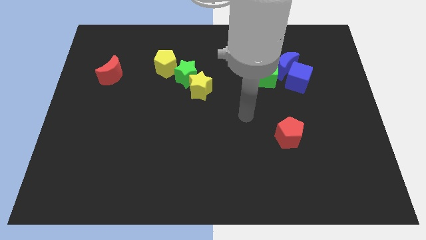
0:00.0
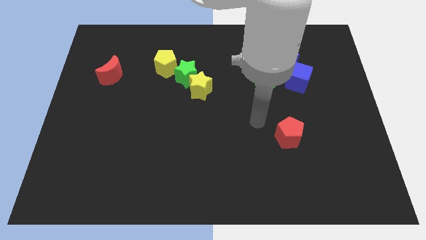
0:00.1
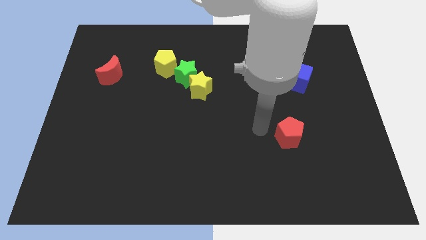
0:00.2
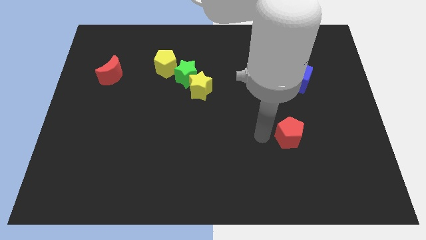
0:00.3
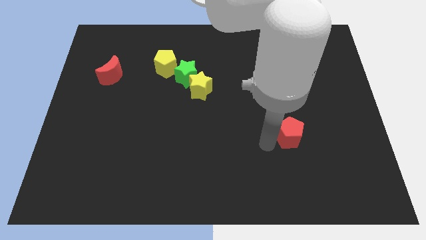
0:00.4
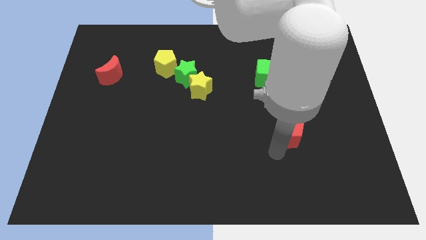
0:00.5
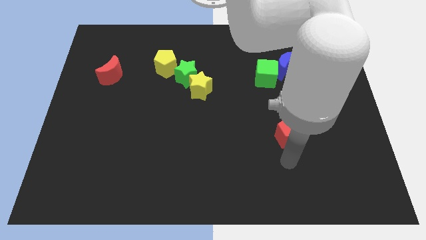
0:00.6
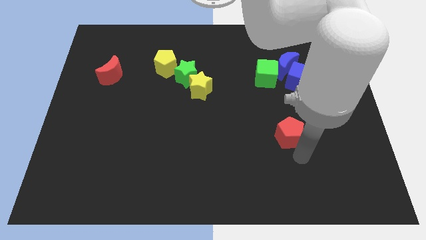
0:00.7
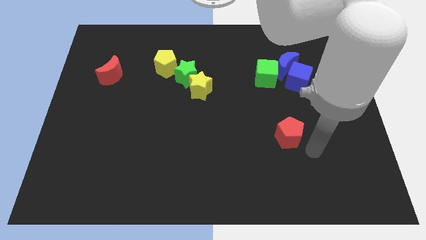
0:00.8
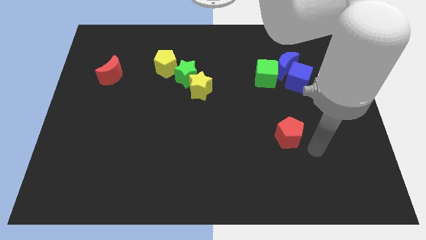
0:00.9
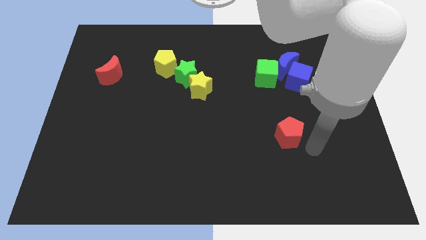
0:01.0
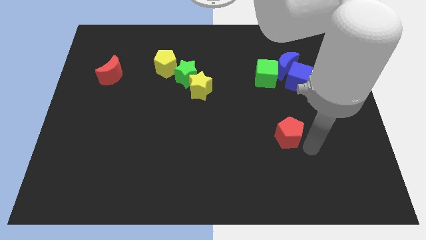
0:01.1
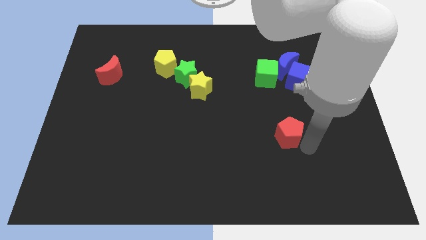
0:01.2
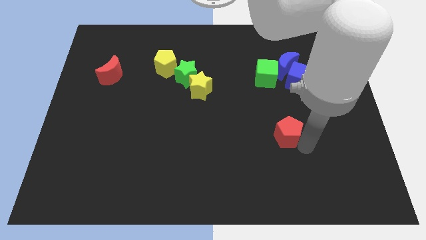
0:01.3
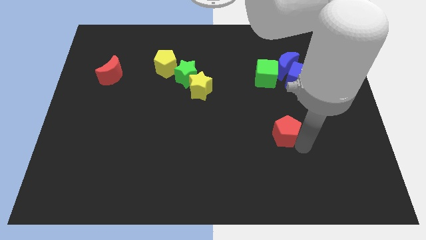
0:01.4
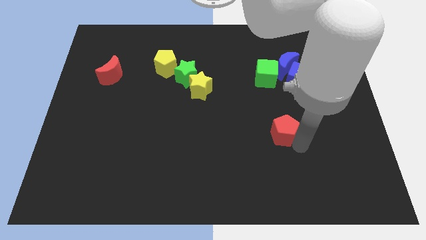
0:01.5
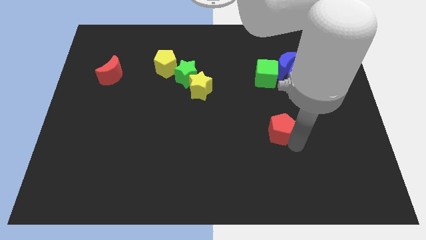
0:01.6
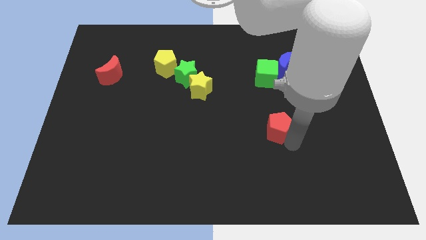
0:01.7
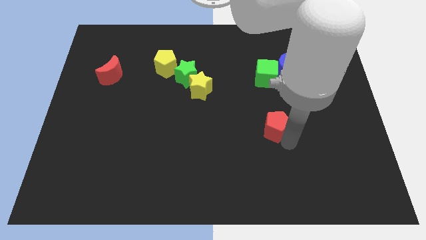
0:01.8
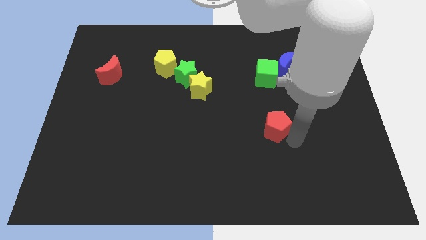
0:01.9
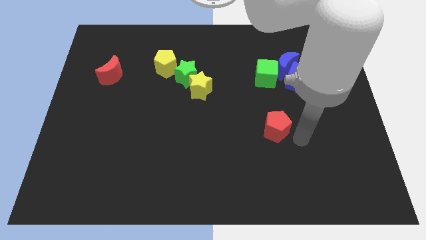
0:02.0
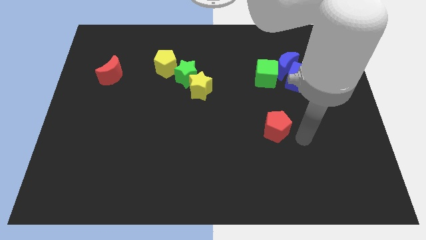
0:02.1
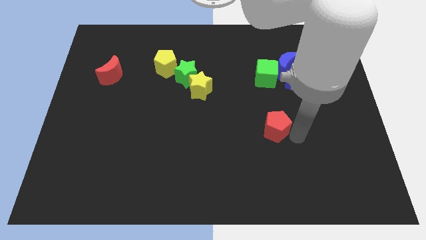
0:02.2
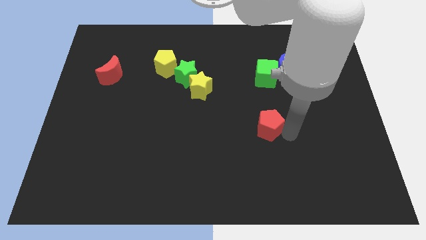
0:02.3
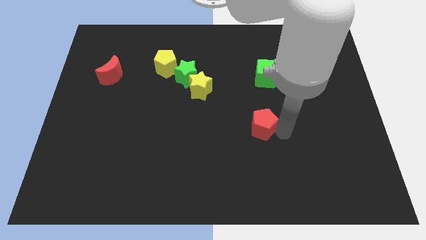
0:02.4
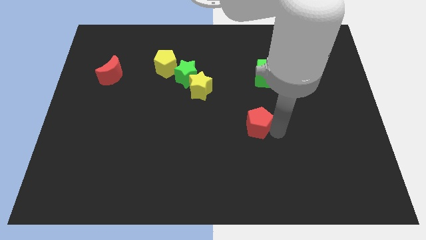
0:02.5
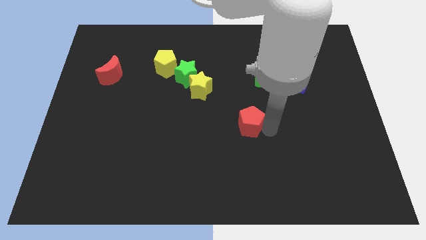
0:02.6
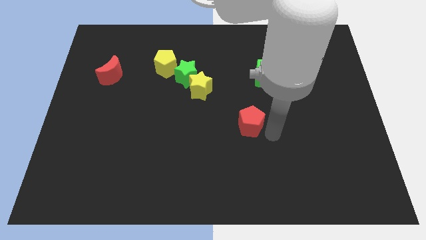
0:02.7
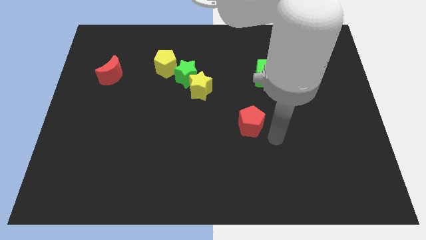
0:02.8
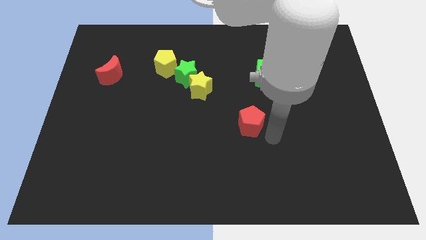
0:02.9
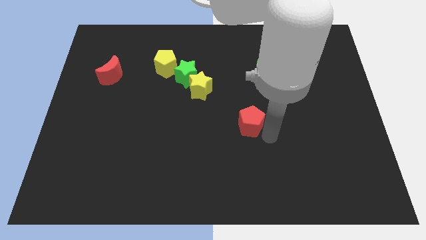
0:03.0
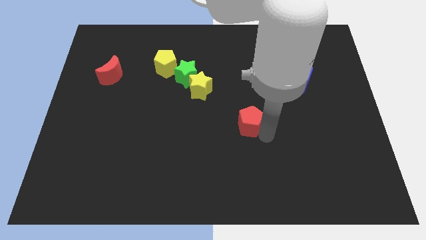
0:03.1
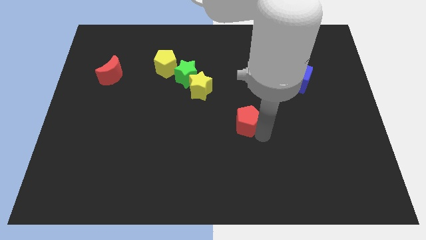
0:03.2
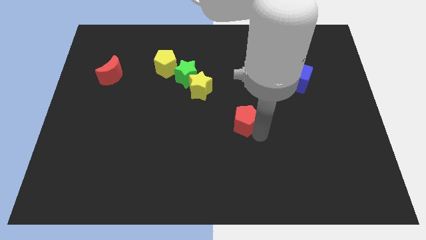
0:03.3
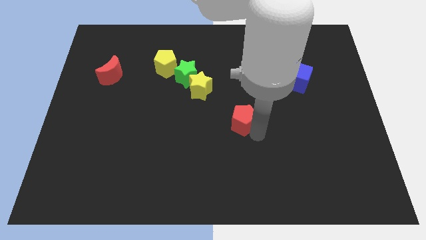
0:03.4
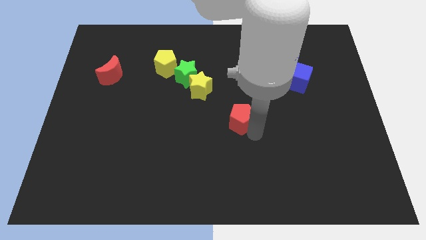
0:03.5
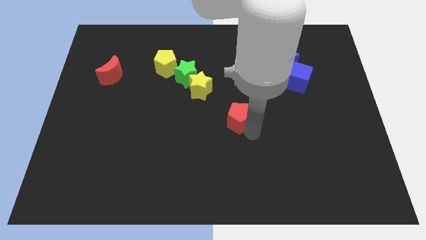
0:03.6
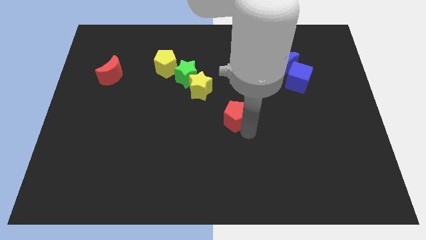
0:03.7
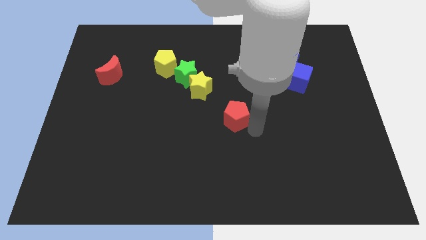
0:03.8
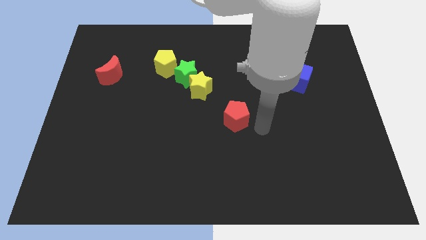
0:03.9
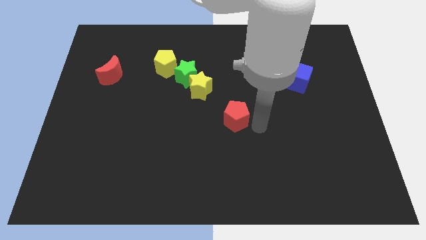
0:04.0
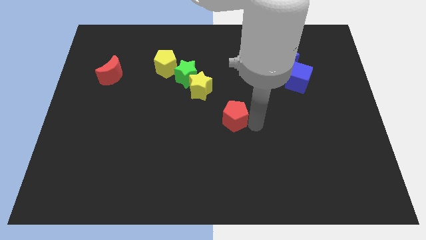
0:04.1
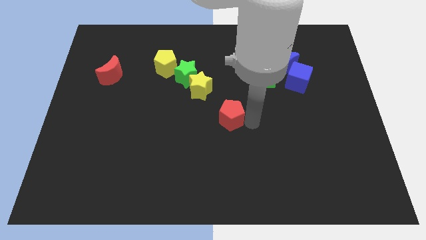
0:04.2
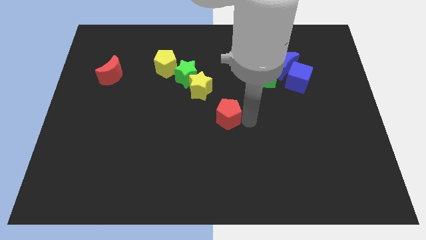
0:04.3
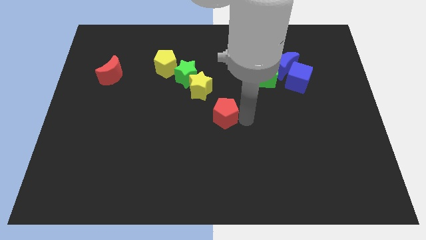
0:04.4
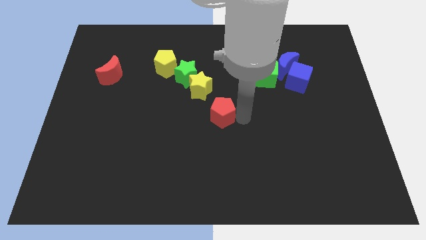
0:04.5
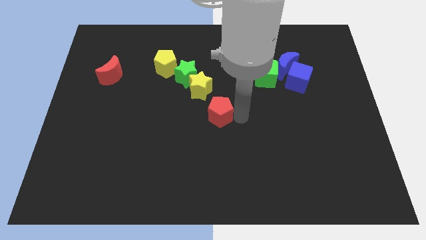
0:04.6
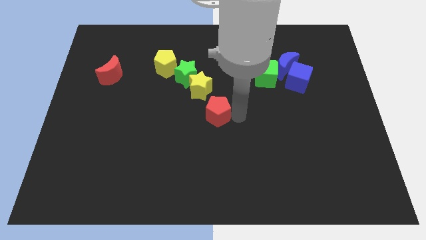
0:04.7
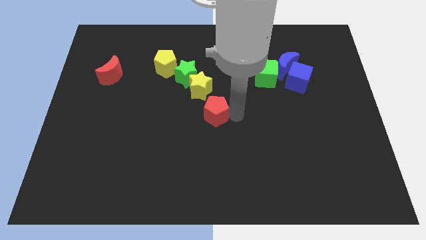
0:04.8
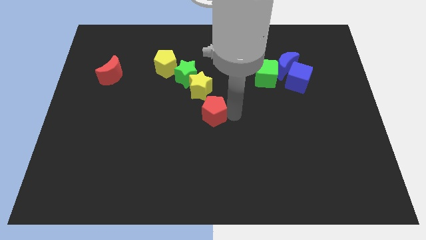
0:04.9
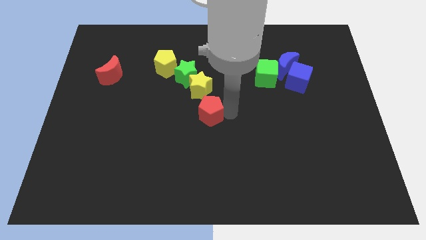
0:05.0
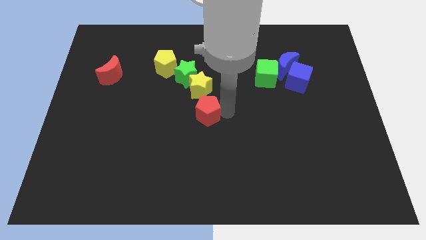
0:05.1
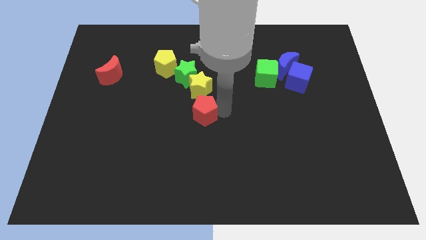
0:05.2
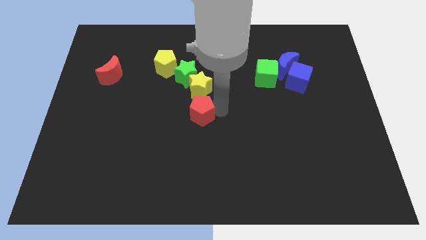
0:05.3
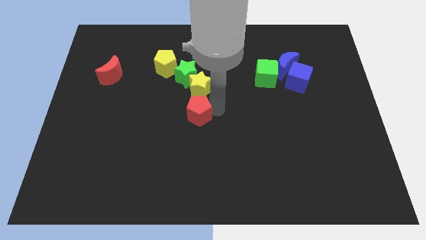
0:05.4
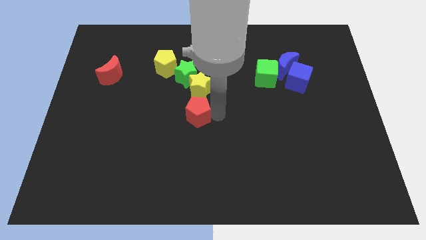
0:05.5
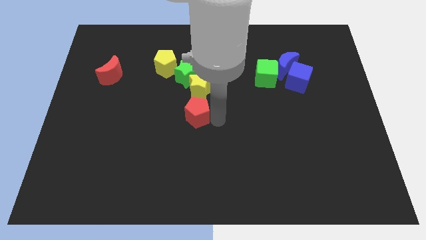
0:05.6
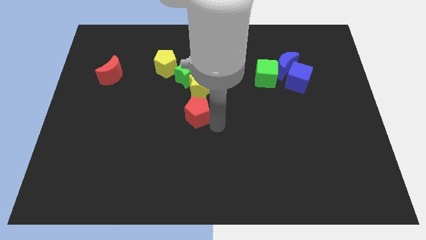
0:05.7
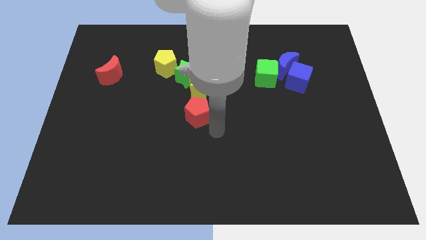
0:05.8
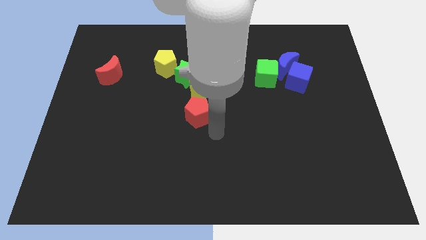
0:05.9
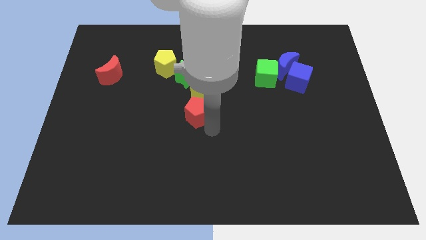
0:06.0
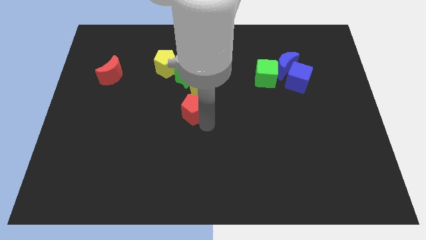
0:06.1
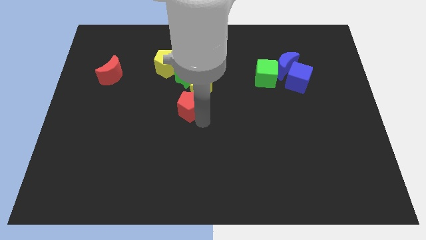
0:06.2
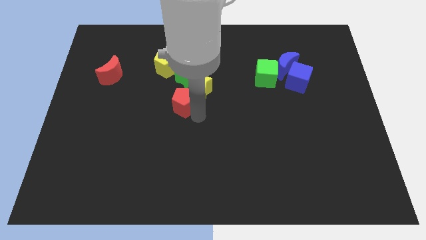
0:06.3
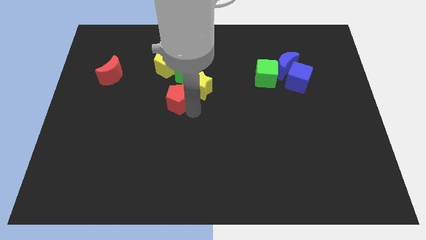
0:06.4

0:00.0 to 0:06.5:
move the red pentagon to the bottom side of the yellow pentagon
